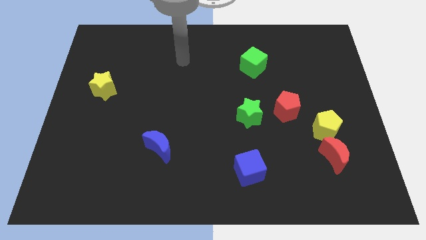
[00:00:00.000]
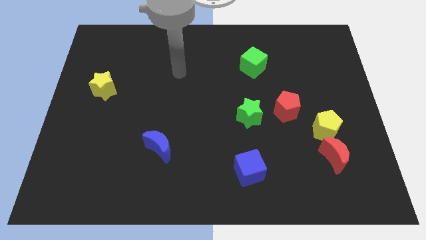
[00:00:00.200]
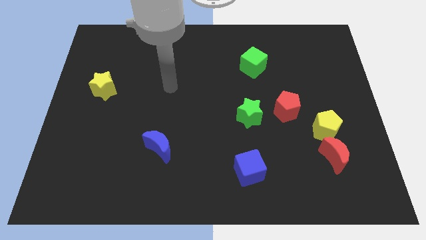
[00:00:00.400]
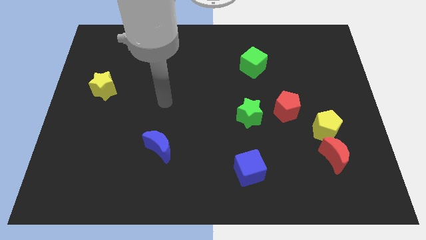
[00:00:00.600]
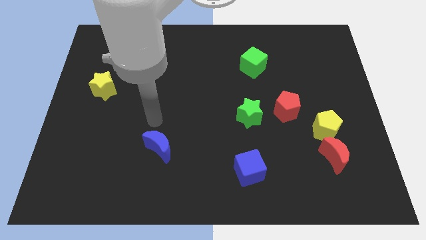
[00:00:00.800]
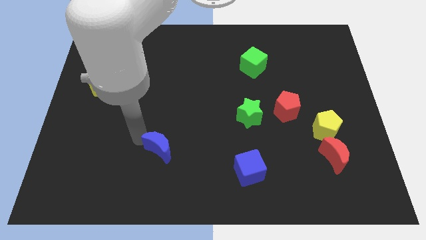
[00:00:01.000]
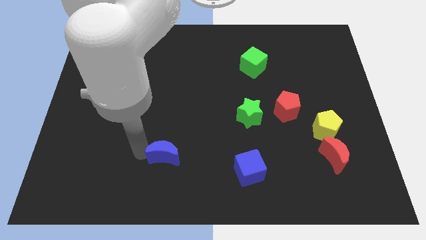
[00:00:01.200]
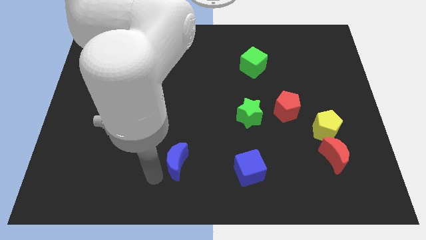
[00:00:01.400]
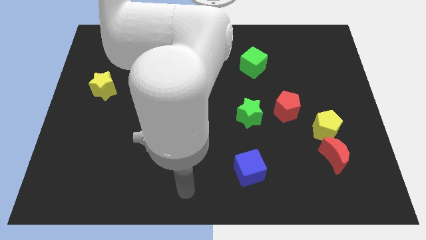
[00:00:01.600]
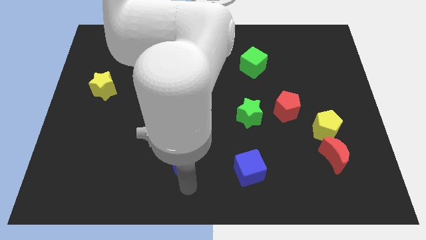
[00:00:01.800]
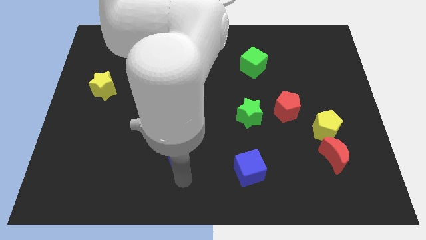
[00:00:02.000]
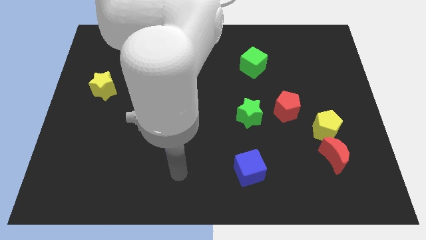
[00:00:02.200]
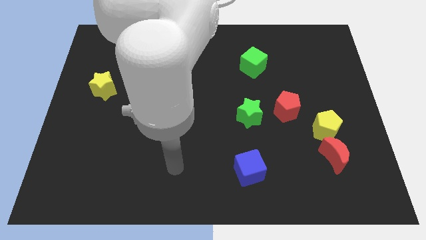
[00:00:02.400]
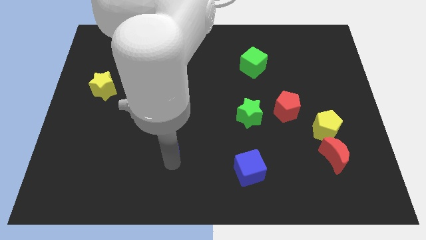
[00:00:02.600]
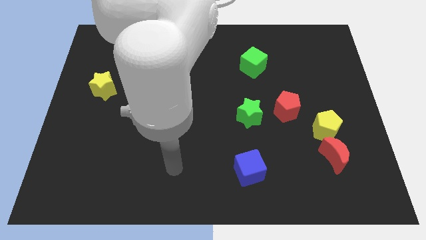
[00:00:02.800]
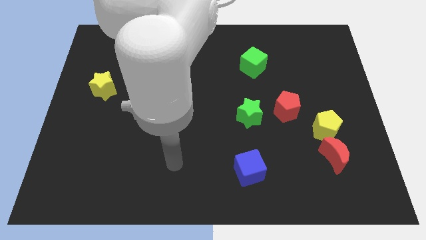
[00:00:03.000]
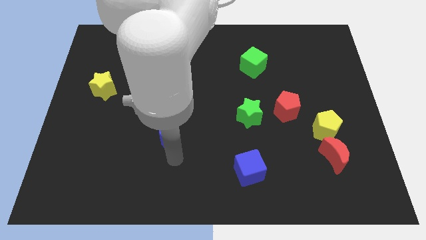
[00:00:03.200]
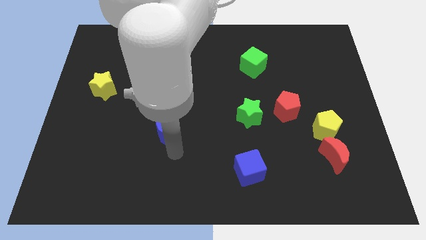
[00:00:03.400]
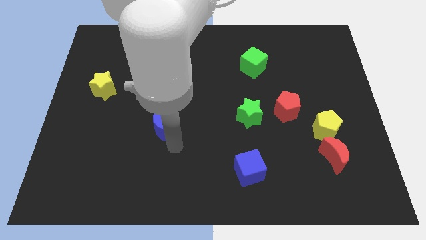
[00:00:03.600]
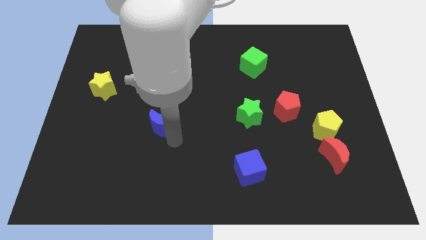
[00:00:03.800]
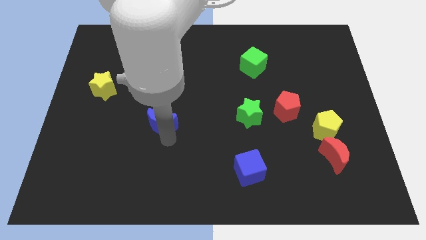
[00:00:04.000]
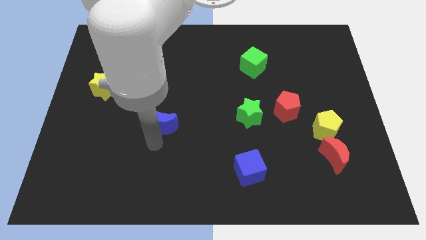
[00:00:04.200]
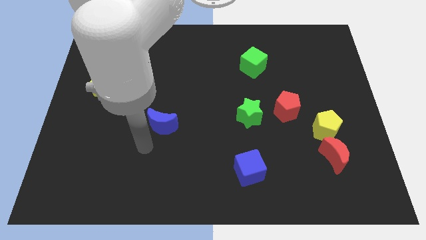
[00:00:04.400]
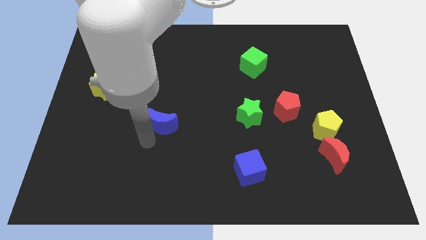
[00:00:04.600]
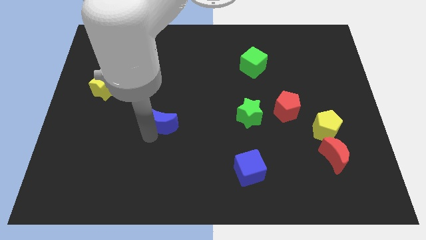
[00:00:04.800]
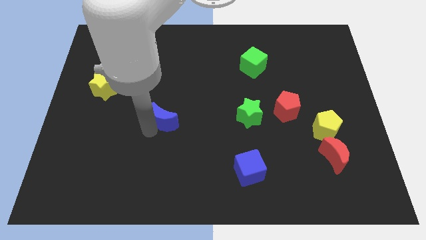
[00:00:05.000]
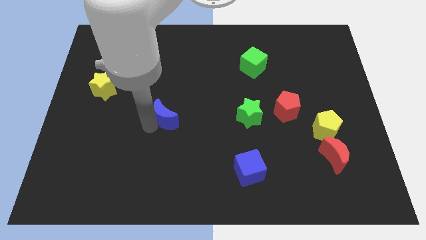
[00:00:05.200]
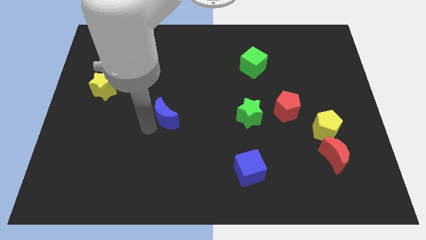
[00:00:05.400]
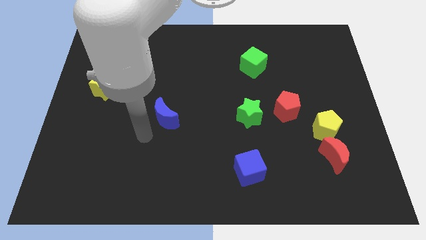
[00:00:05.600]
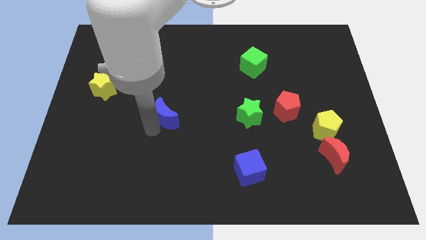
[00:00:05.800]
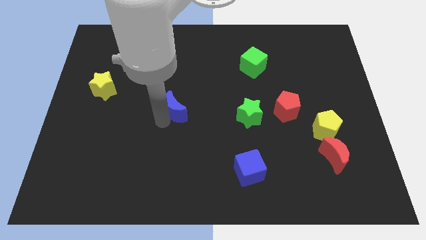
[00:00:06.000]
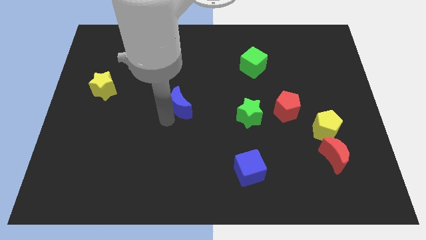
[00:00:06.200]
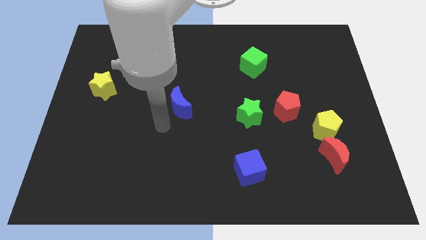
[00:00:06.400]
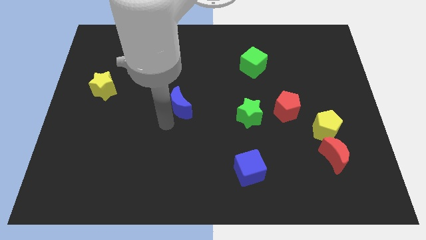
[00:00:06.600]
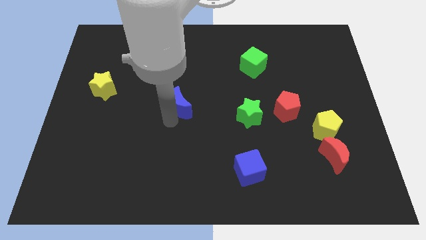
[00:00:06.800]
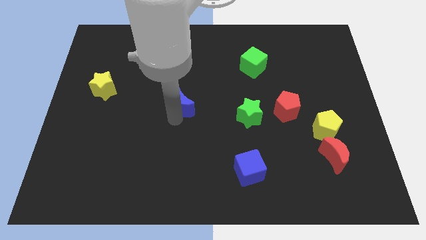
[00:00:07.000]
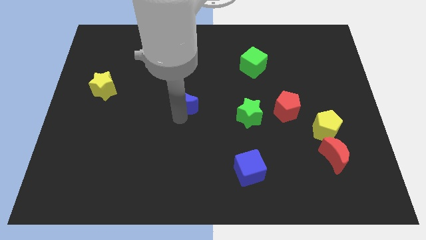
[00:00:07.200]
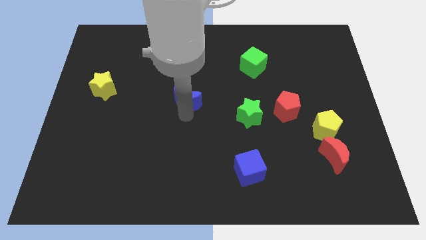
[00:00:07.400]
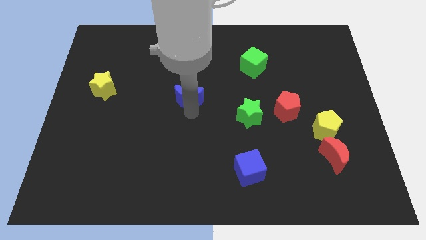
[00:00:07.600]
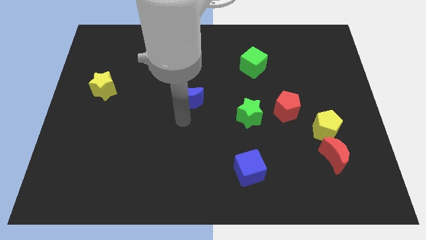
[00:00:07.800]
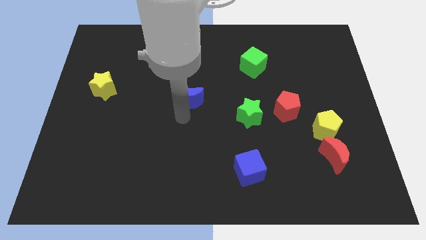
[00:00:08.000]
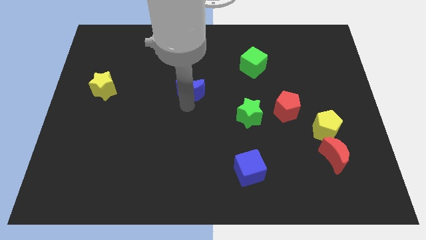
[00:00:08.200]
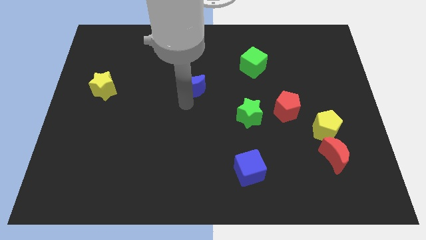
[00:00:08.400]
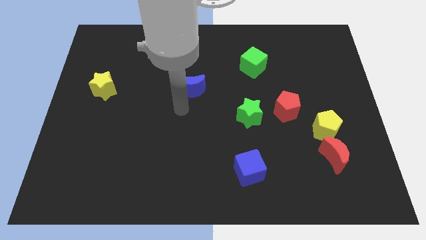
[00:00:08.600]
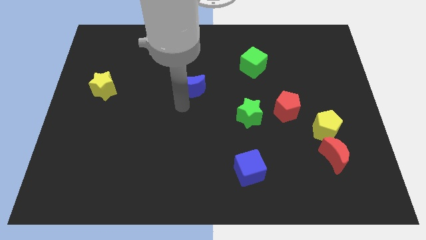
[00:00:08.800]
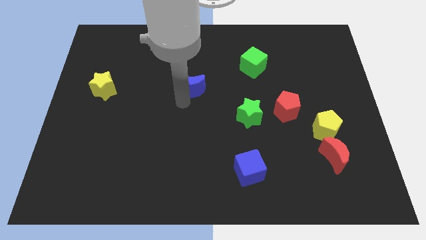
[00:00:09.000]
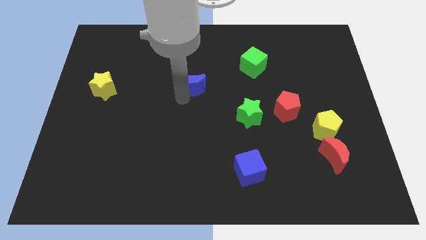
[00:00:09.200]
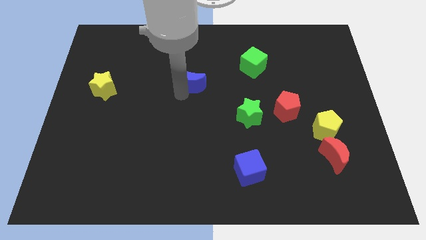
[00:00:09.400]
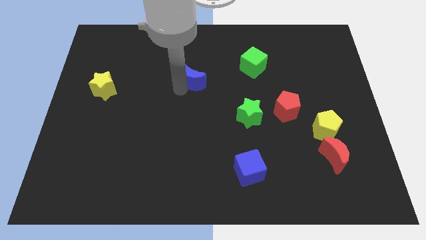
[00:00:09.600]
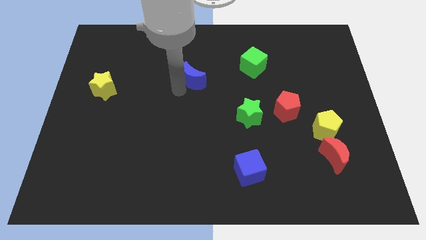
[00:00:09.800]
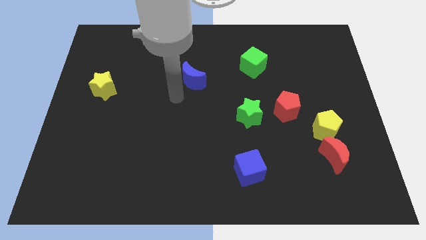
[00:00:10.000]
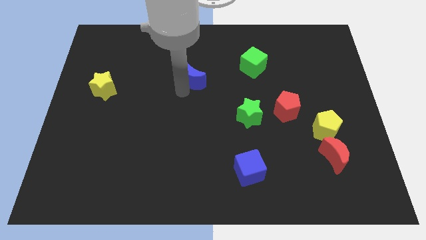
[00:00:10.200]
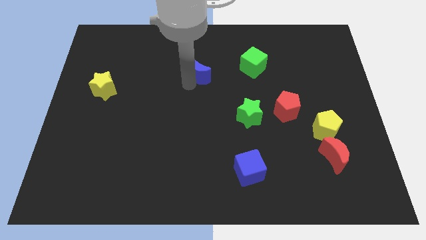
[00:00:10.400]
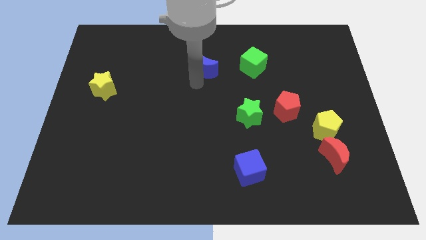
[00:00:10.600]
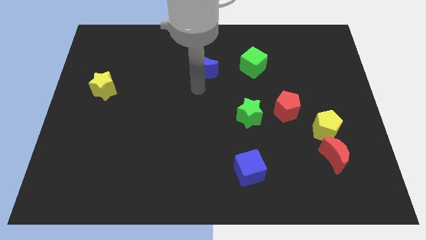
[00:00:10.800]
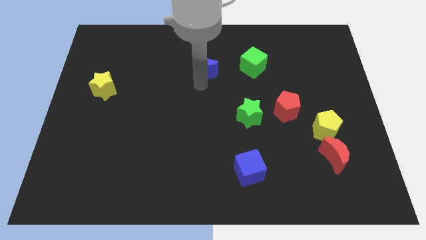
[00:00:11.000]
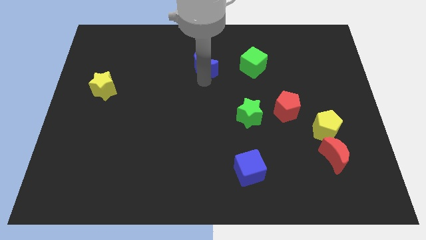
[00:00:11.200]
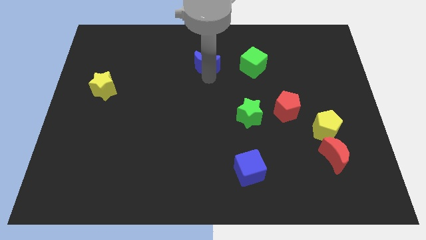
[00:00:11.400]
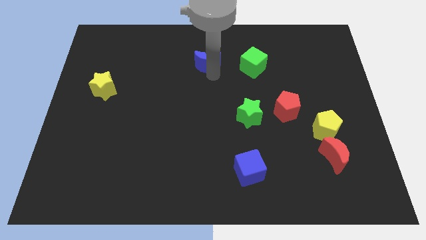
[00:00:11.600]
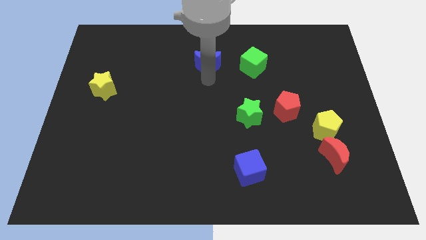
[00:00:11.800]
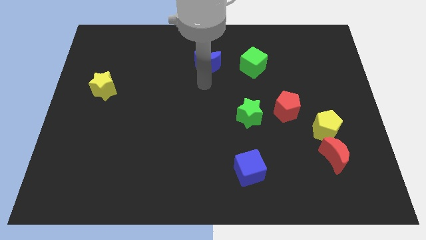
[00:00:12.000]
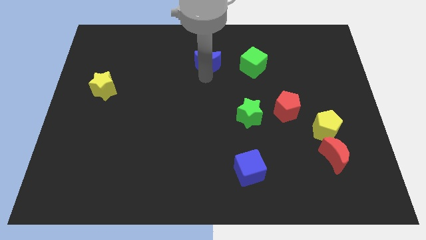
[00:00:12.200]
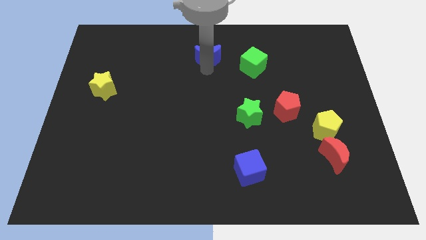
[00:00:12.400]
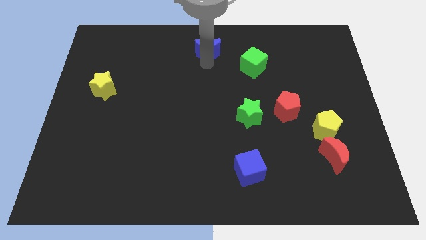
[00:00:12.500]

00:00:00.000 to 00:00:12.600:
slide the blue moon to the towards your base

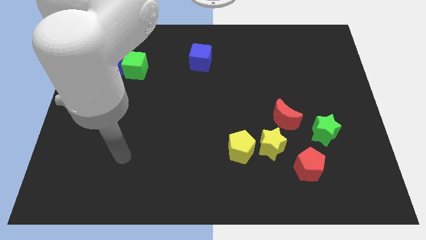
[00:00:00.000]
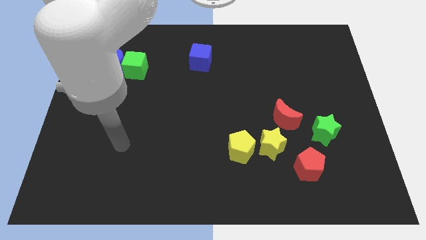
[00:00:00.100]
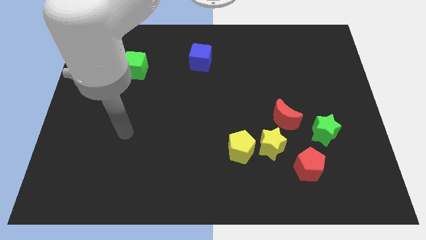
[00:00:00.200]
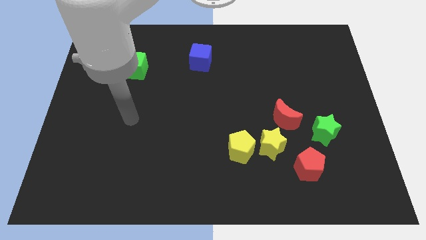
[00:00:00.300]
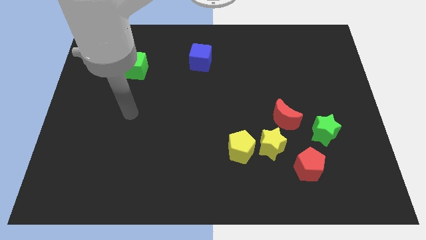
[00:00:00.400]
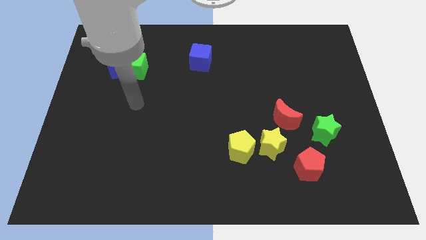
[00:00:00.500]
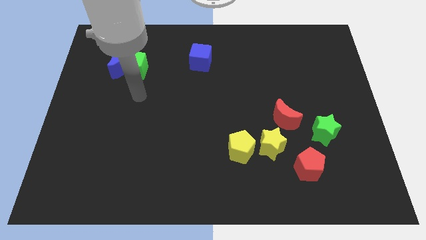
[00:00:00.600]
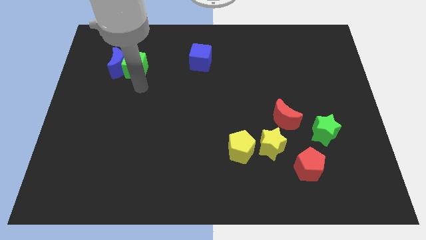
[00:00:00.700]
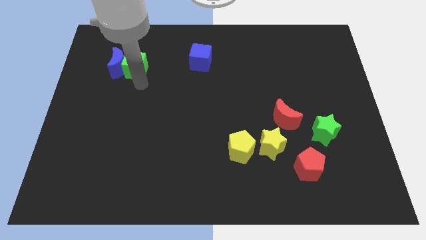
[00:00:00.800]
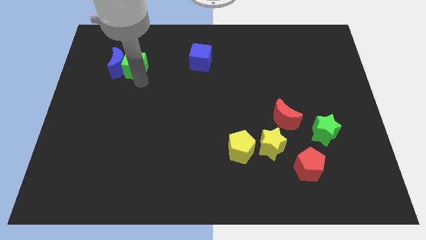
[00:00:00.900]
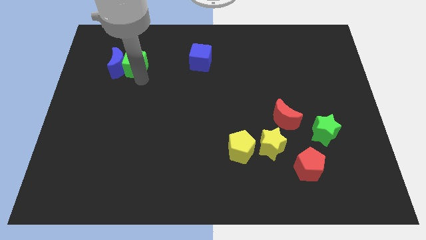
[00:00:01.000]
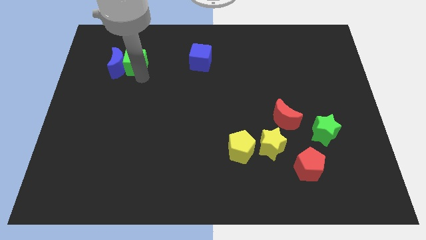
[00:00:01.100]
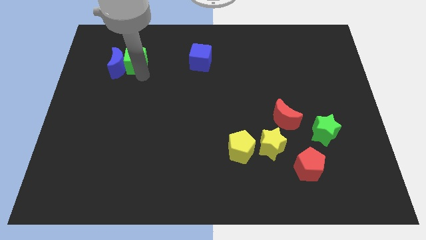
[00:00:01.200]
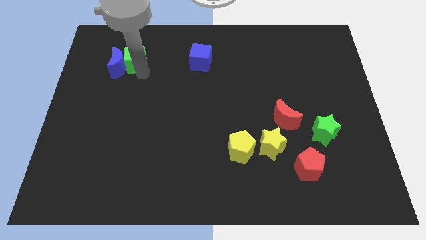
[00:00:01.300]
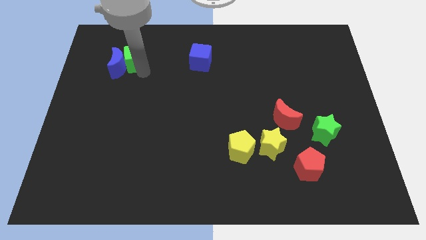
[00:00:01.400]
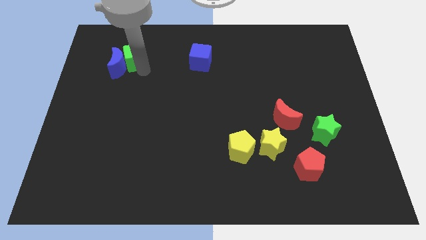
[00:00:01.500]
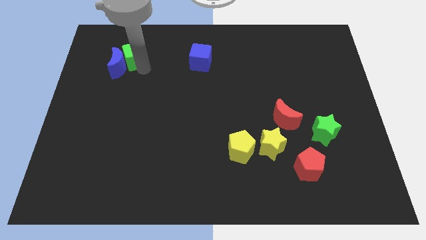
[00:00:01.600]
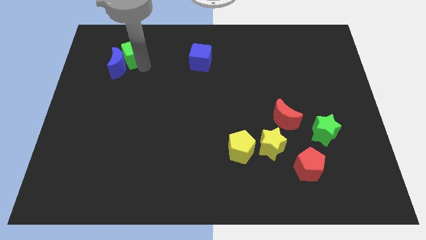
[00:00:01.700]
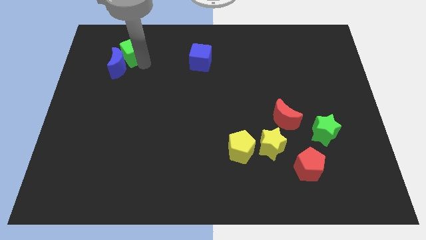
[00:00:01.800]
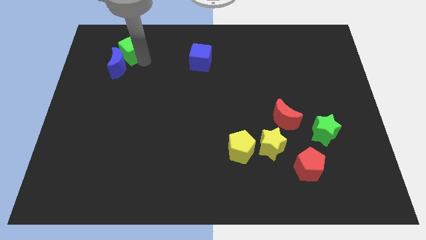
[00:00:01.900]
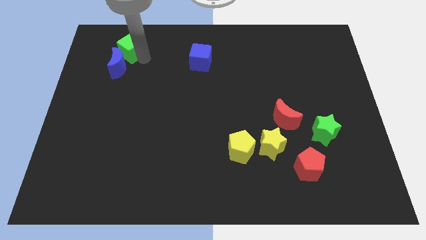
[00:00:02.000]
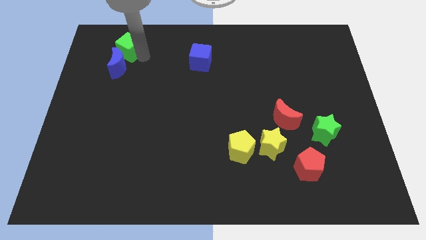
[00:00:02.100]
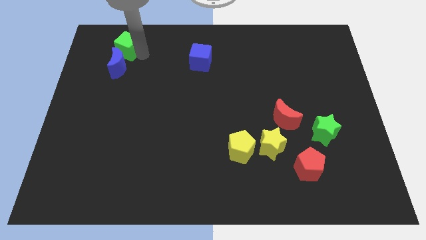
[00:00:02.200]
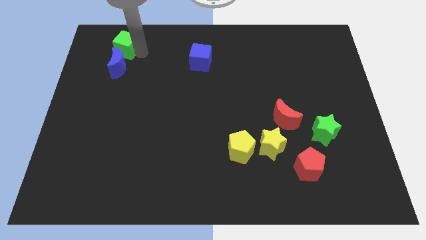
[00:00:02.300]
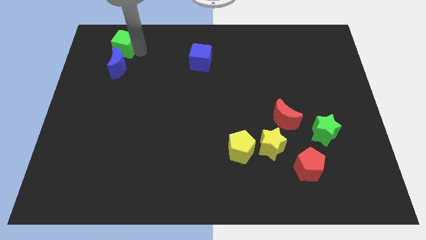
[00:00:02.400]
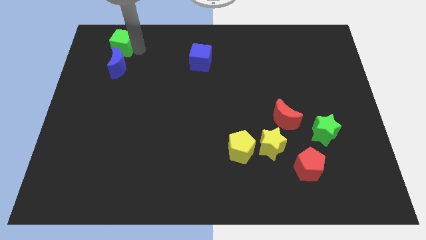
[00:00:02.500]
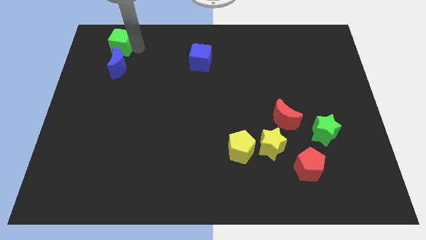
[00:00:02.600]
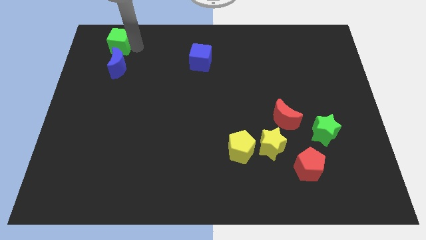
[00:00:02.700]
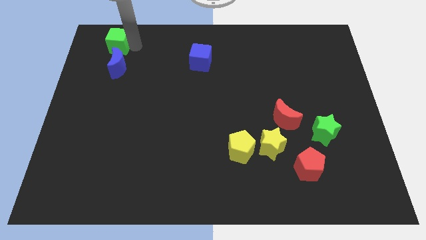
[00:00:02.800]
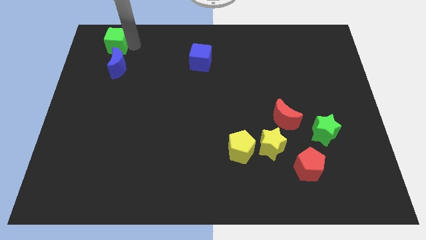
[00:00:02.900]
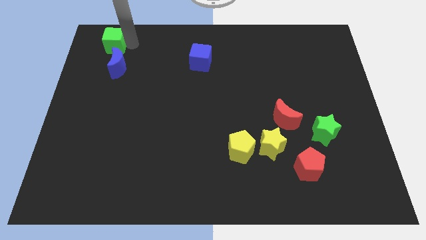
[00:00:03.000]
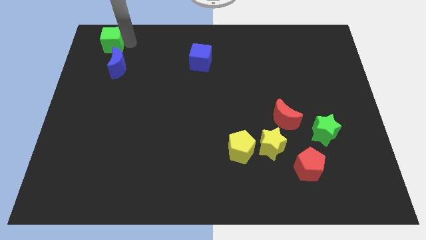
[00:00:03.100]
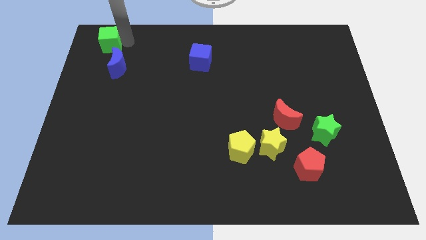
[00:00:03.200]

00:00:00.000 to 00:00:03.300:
move the green cube to the top left corner
